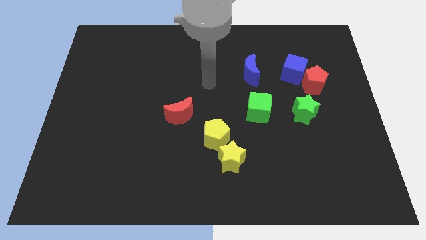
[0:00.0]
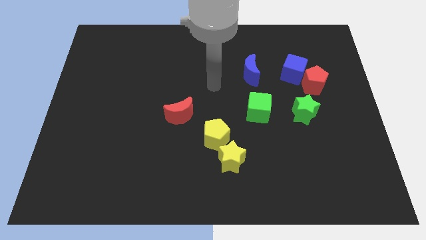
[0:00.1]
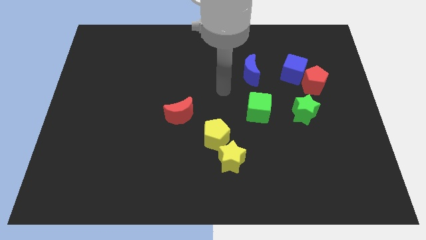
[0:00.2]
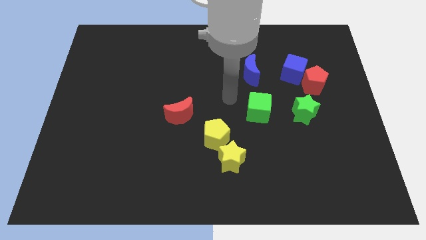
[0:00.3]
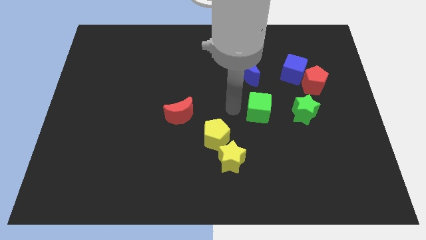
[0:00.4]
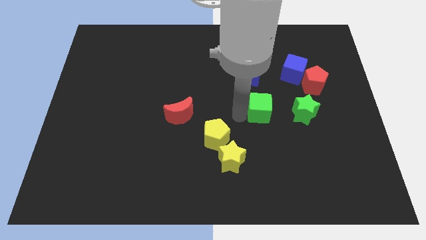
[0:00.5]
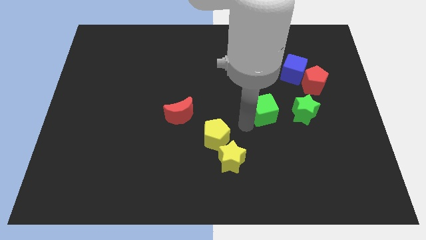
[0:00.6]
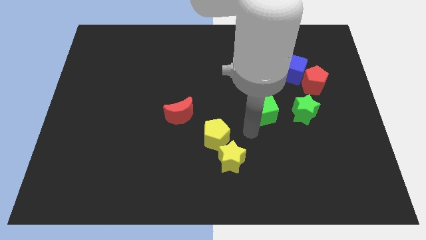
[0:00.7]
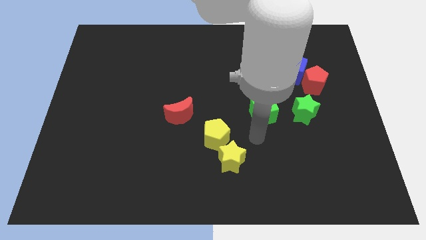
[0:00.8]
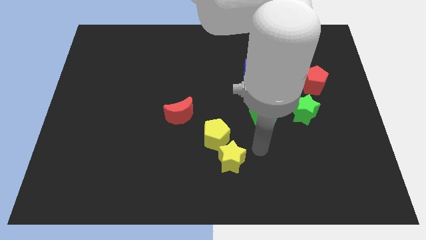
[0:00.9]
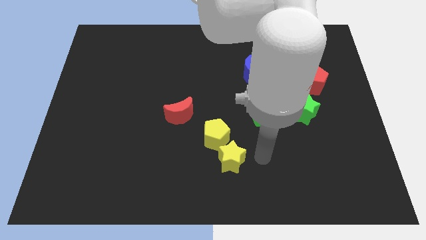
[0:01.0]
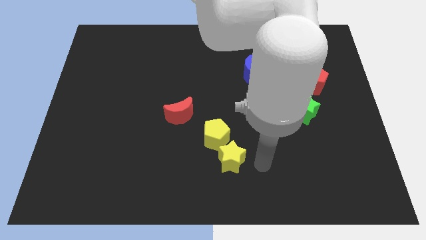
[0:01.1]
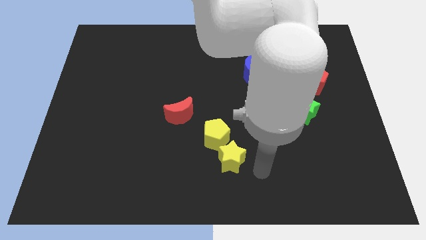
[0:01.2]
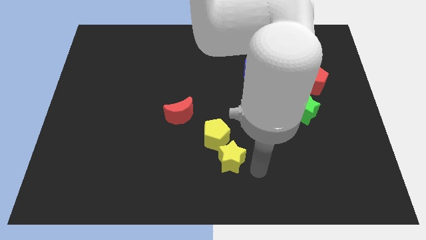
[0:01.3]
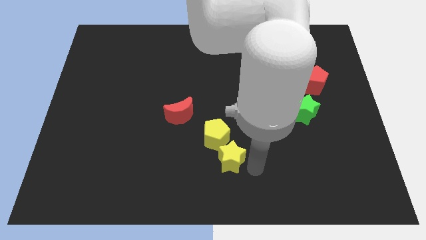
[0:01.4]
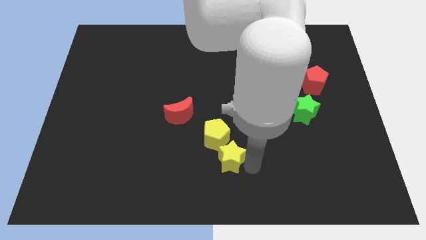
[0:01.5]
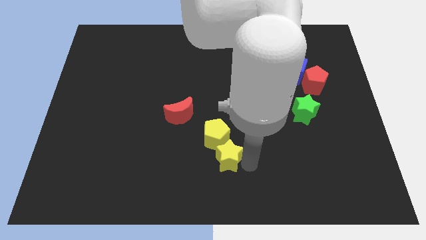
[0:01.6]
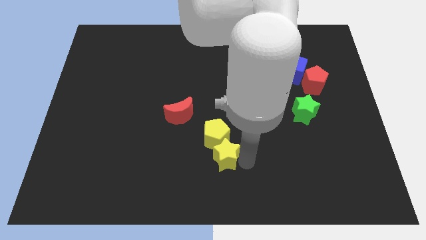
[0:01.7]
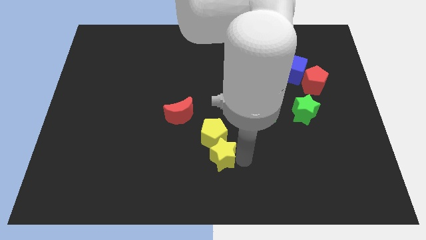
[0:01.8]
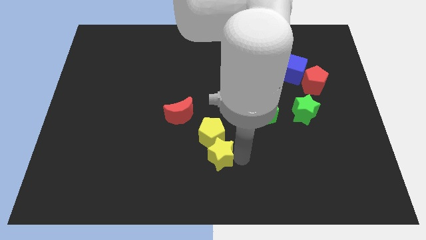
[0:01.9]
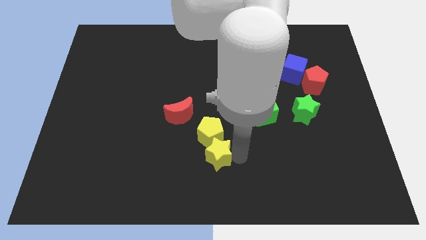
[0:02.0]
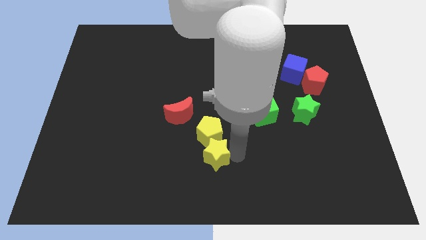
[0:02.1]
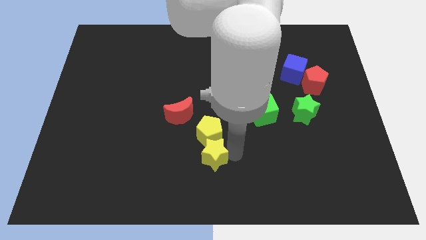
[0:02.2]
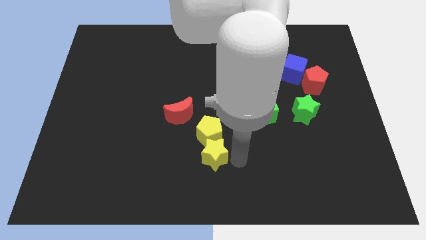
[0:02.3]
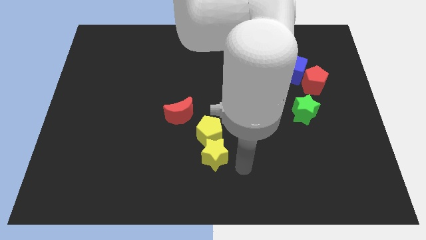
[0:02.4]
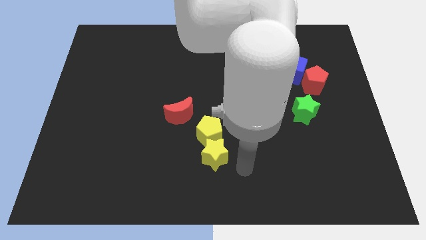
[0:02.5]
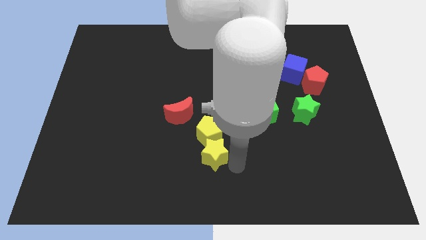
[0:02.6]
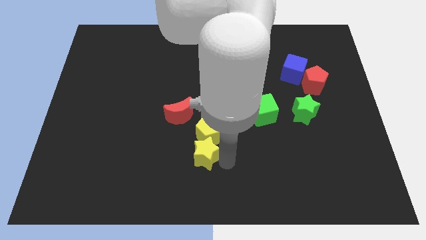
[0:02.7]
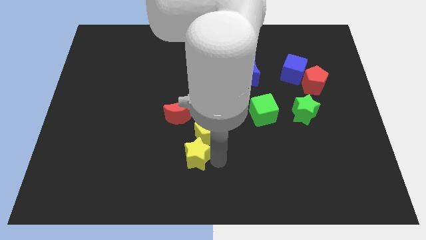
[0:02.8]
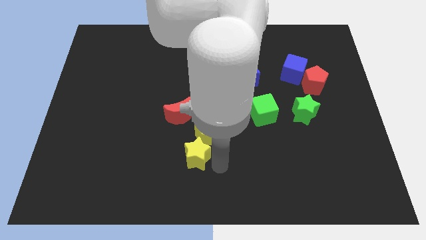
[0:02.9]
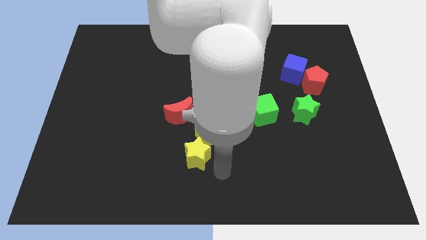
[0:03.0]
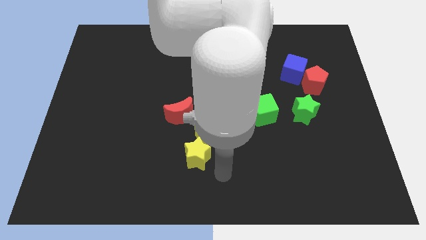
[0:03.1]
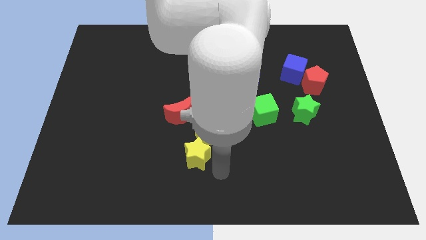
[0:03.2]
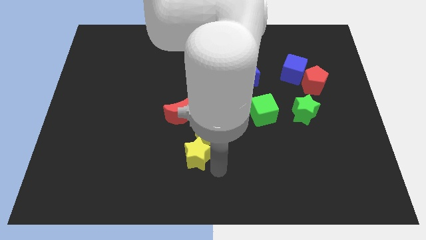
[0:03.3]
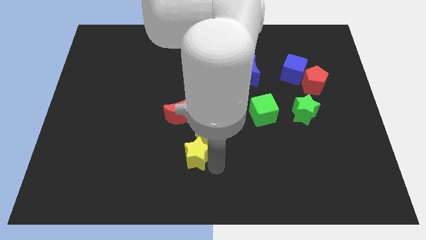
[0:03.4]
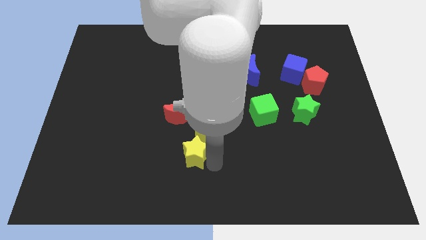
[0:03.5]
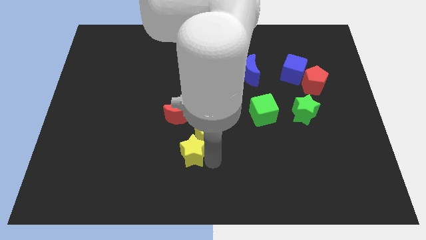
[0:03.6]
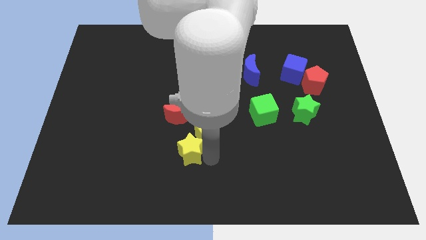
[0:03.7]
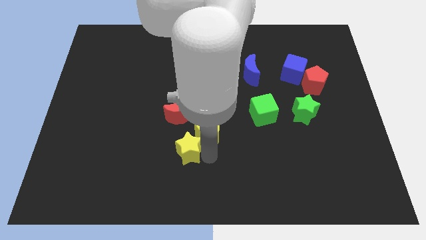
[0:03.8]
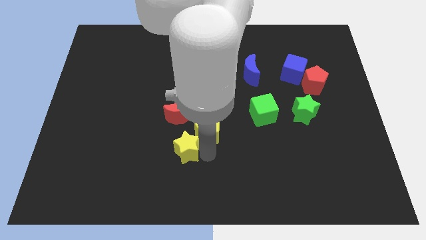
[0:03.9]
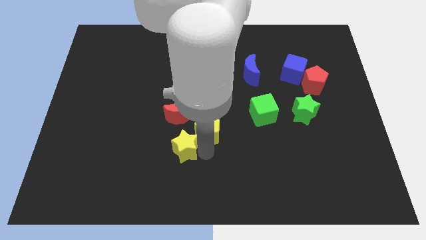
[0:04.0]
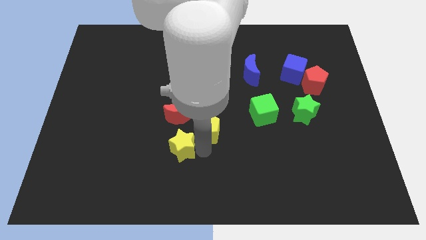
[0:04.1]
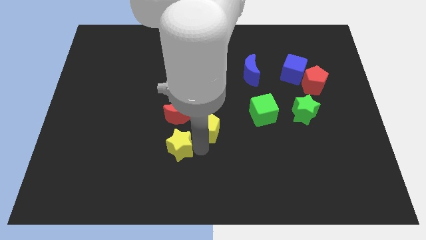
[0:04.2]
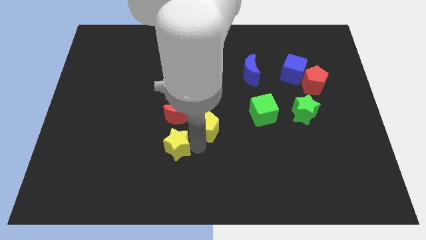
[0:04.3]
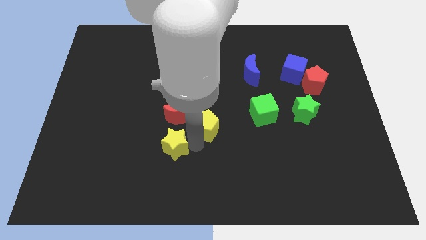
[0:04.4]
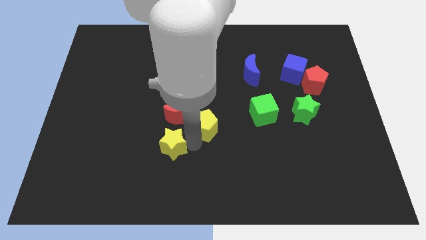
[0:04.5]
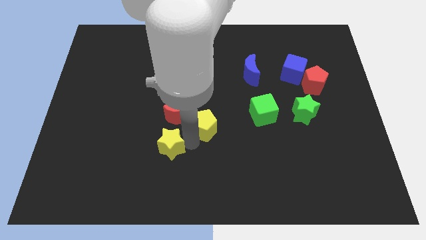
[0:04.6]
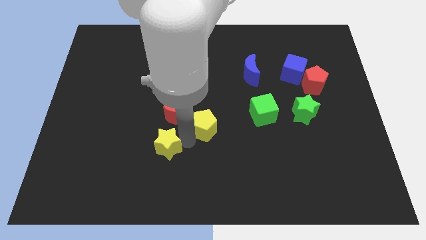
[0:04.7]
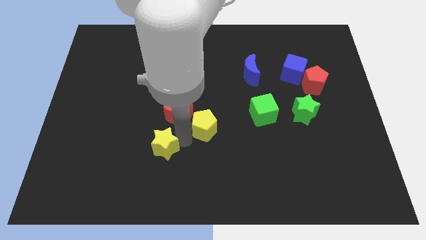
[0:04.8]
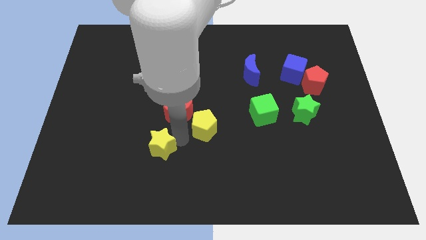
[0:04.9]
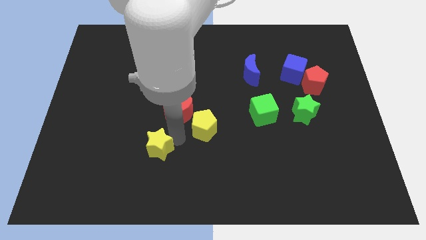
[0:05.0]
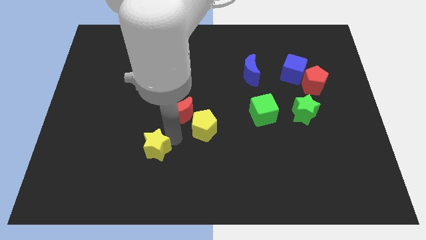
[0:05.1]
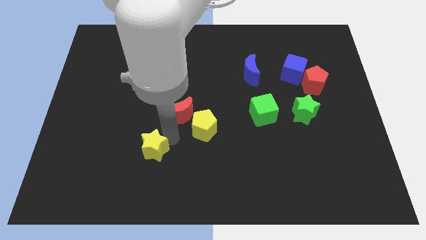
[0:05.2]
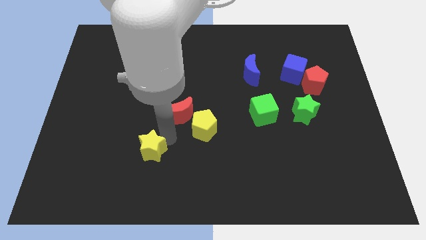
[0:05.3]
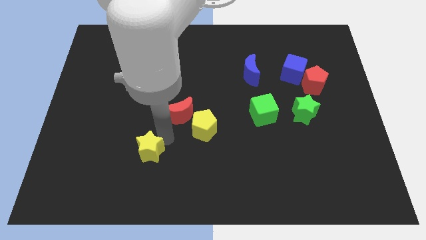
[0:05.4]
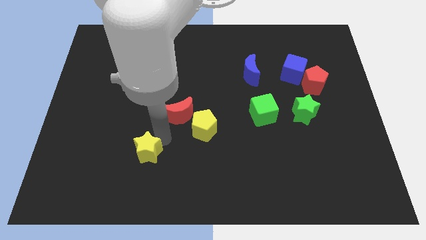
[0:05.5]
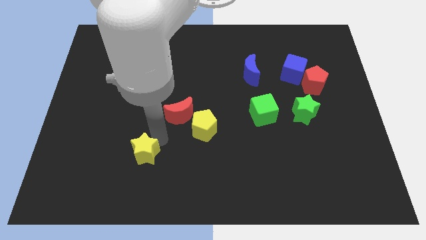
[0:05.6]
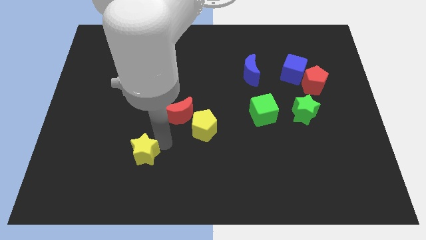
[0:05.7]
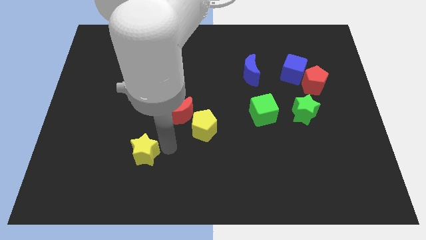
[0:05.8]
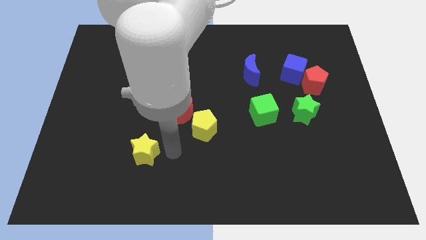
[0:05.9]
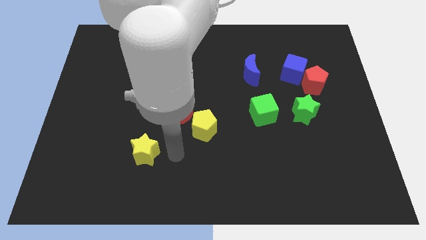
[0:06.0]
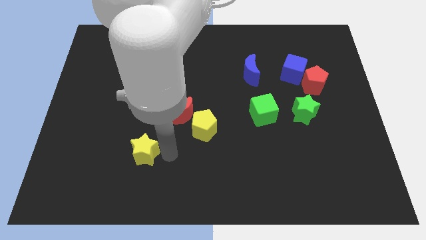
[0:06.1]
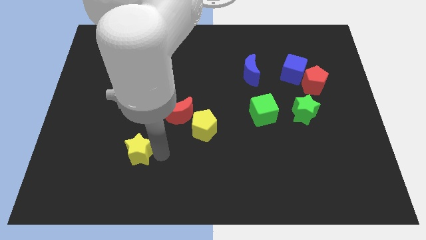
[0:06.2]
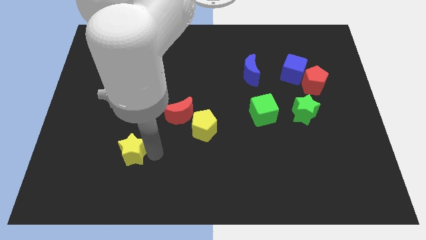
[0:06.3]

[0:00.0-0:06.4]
slide the yellow star left

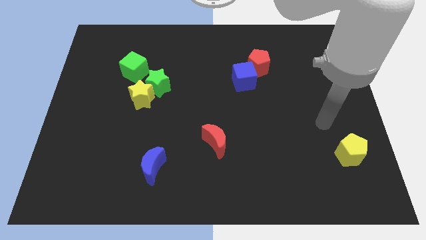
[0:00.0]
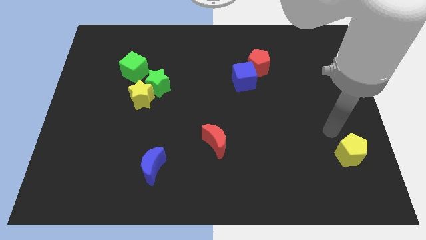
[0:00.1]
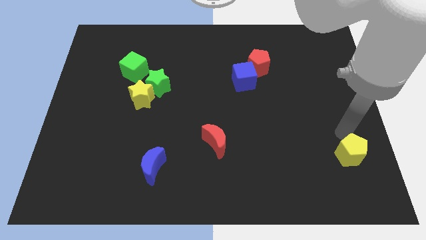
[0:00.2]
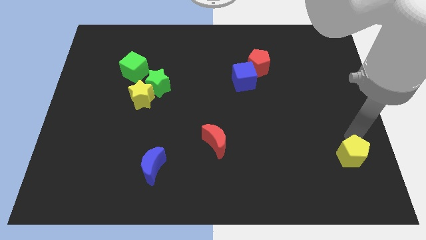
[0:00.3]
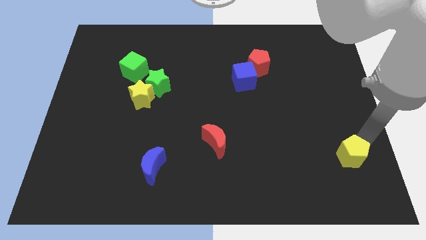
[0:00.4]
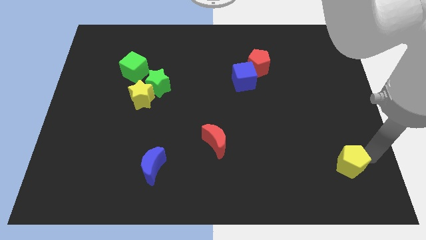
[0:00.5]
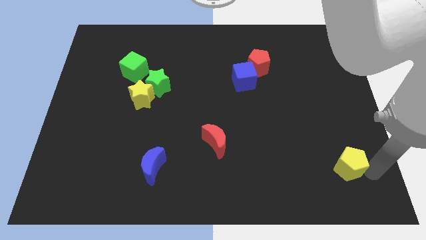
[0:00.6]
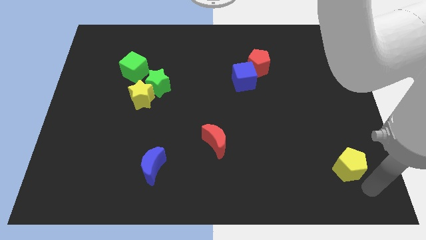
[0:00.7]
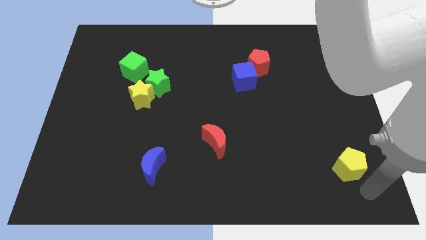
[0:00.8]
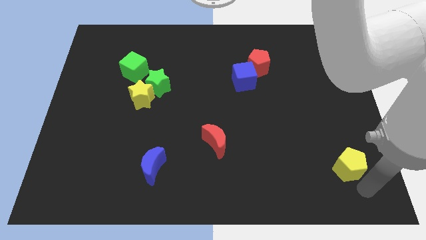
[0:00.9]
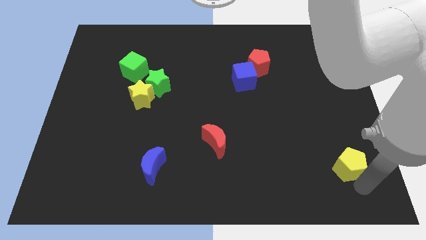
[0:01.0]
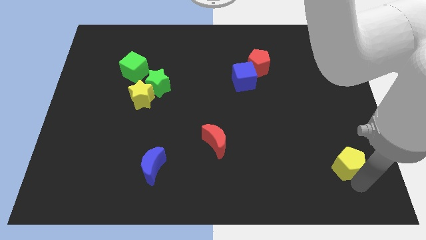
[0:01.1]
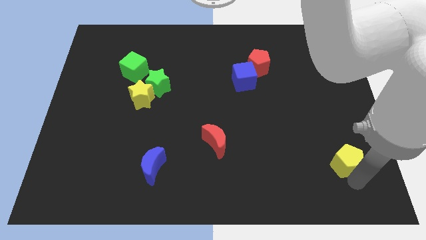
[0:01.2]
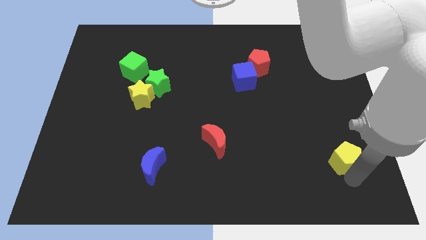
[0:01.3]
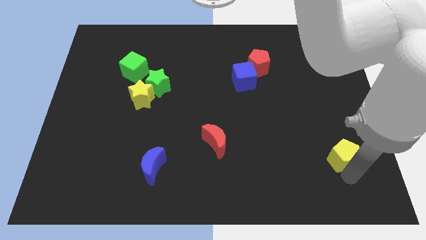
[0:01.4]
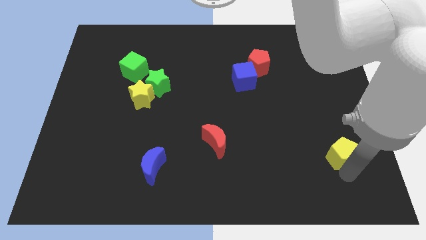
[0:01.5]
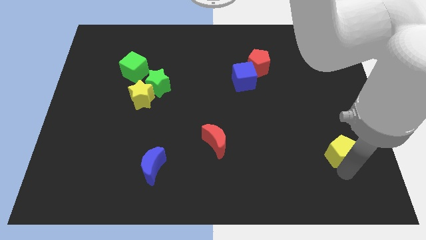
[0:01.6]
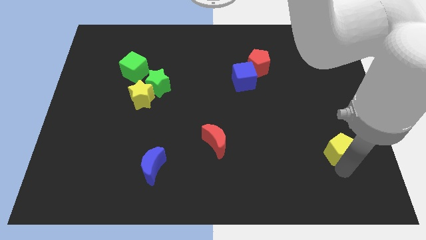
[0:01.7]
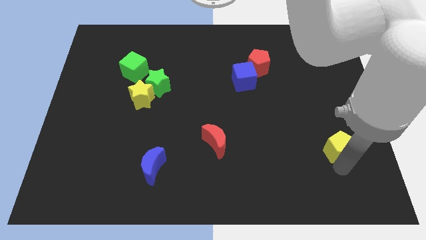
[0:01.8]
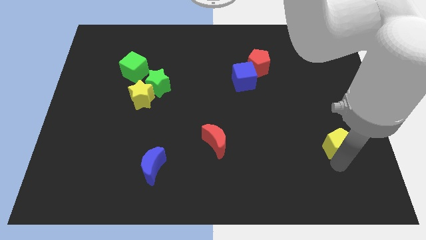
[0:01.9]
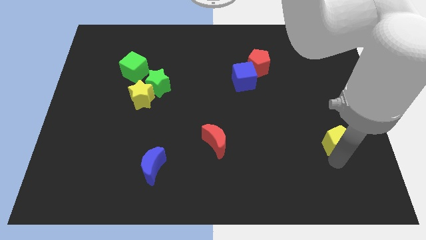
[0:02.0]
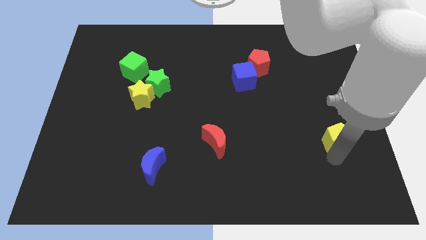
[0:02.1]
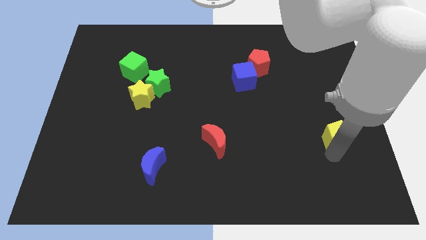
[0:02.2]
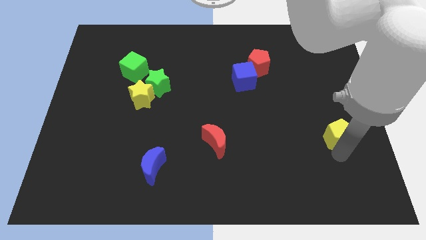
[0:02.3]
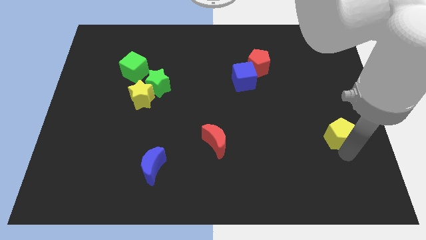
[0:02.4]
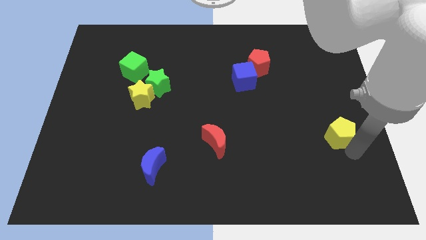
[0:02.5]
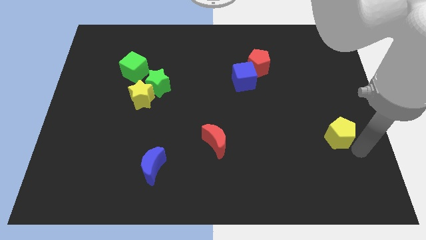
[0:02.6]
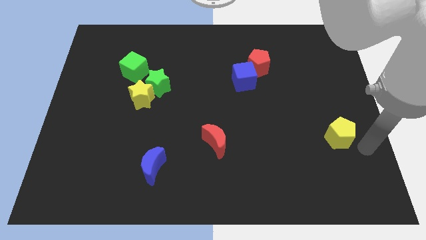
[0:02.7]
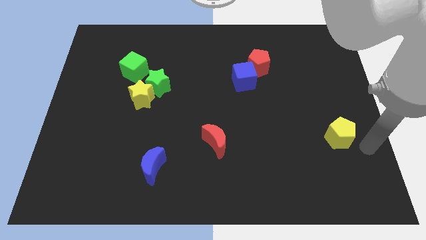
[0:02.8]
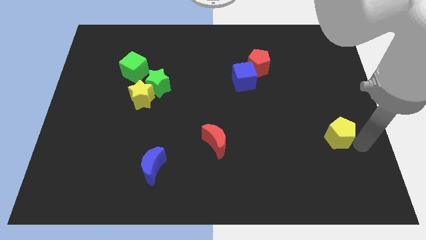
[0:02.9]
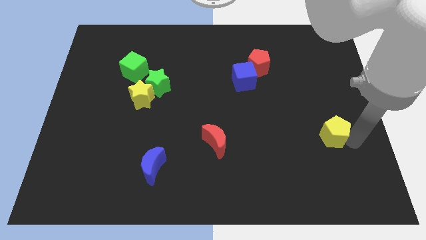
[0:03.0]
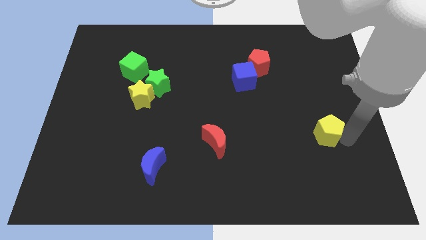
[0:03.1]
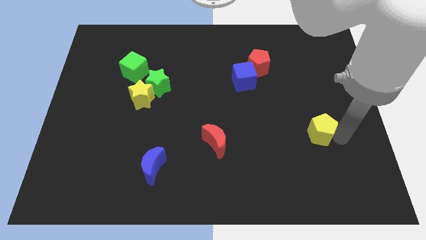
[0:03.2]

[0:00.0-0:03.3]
slightly move the yellow pentagon upwards and to the left
